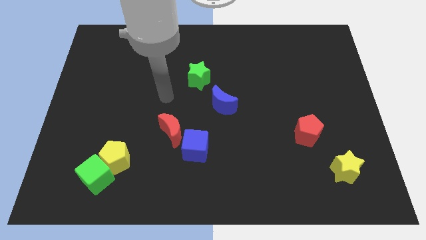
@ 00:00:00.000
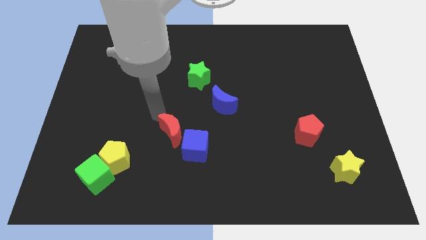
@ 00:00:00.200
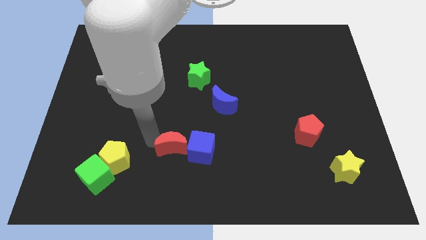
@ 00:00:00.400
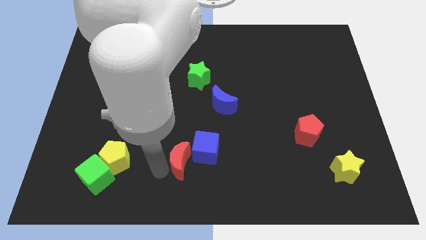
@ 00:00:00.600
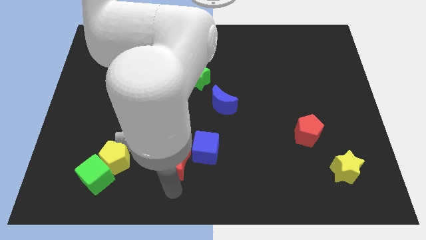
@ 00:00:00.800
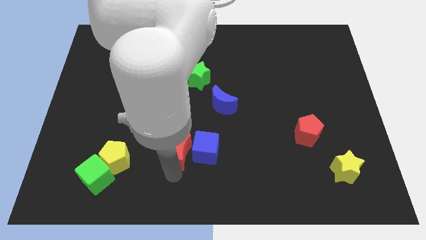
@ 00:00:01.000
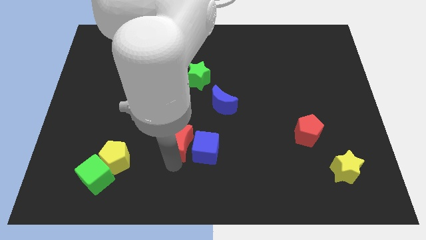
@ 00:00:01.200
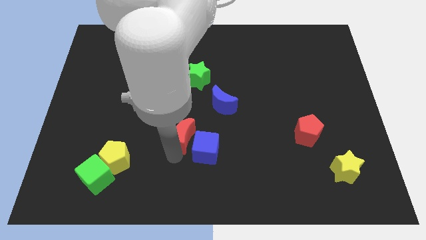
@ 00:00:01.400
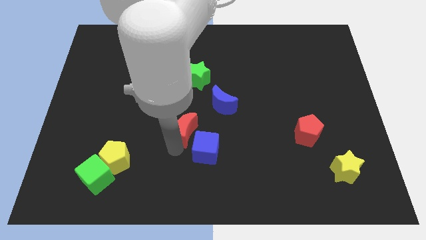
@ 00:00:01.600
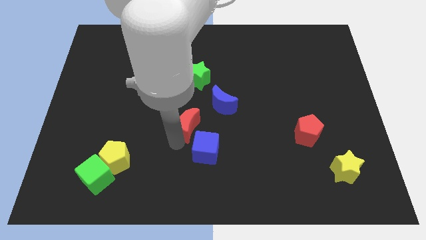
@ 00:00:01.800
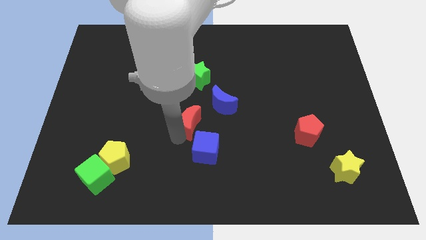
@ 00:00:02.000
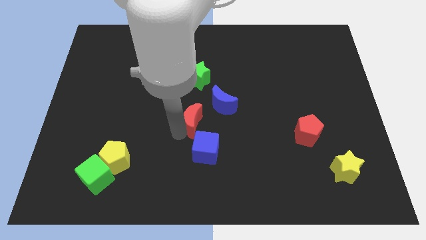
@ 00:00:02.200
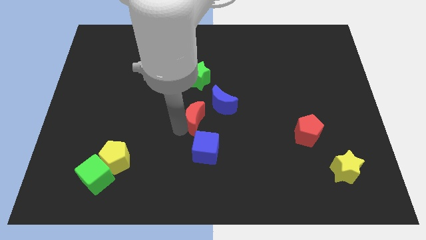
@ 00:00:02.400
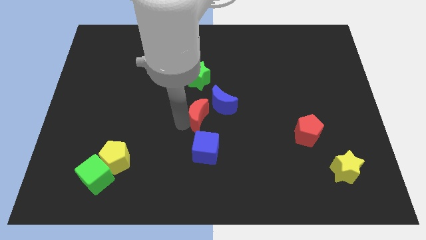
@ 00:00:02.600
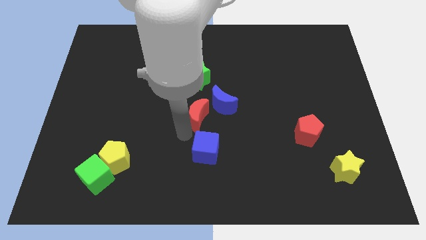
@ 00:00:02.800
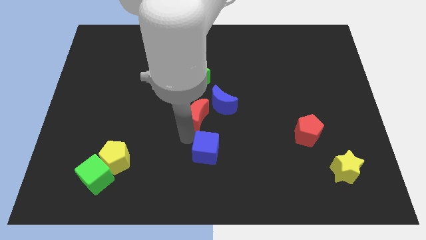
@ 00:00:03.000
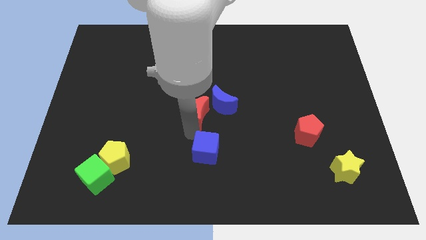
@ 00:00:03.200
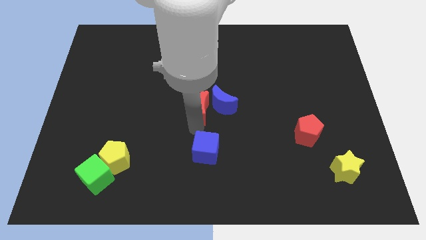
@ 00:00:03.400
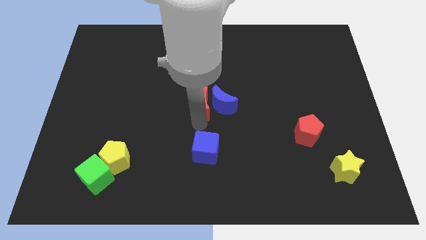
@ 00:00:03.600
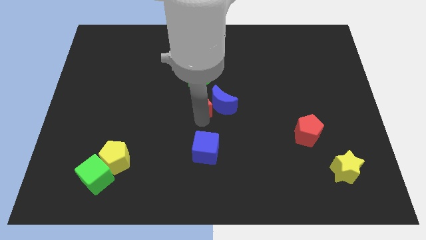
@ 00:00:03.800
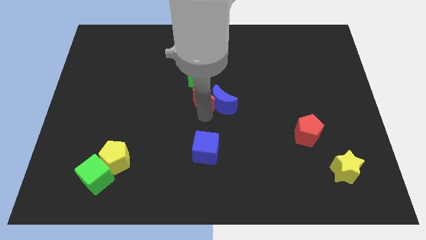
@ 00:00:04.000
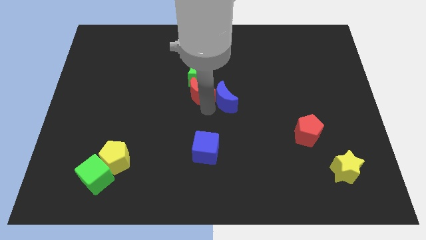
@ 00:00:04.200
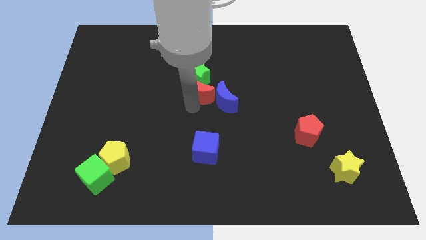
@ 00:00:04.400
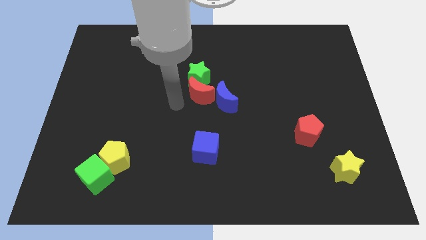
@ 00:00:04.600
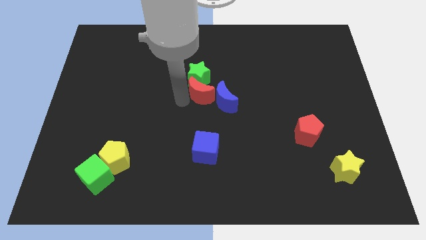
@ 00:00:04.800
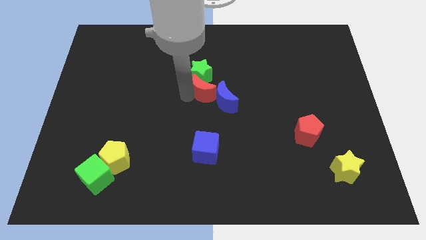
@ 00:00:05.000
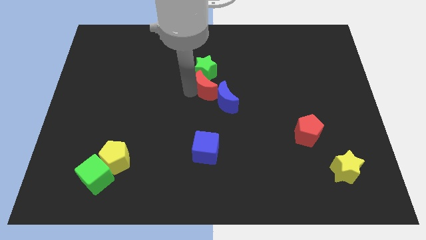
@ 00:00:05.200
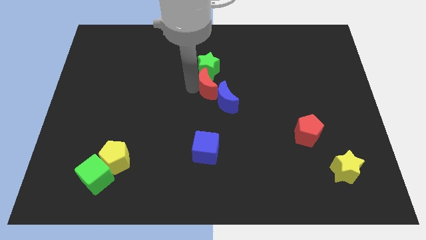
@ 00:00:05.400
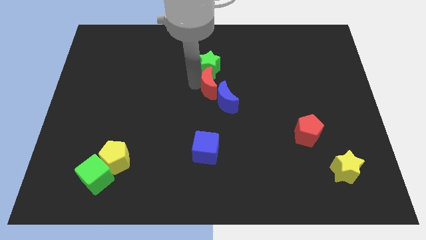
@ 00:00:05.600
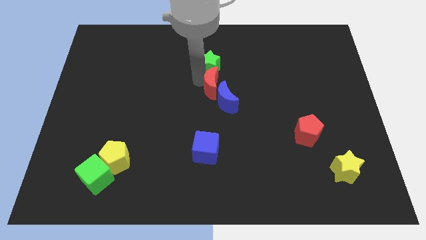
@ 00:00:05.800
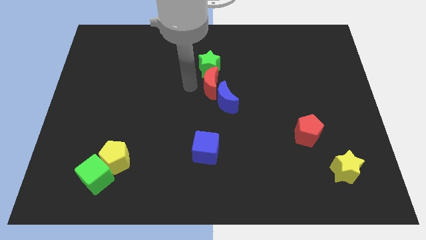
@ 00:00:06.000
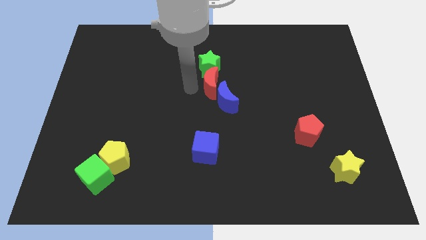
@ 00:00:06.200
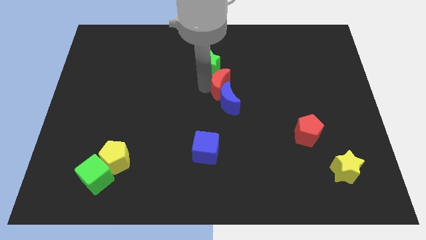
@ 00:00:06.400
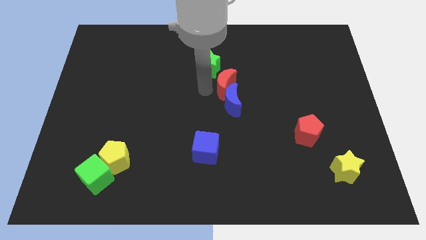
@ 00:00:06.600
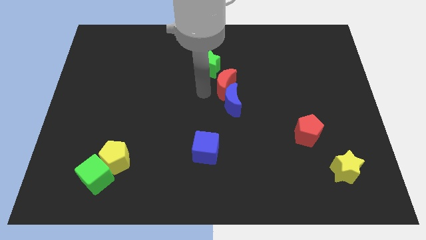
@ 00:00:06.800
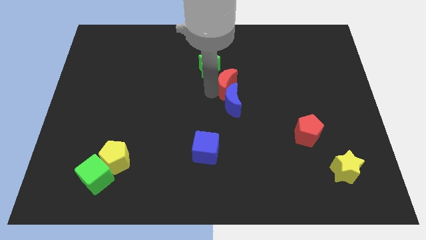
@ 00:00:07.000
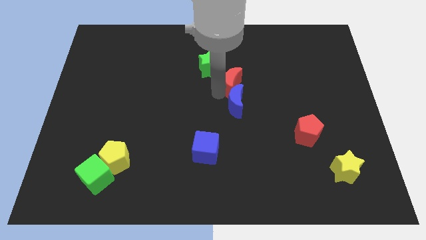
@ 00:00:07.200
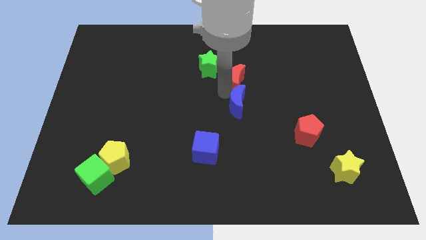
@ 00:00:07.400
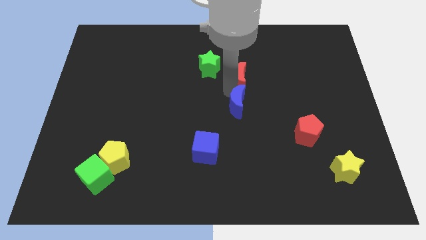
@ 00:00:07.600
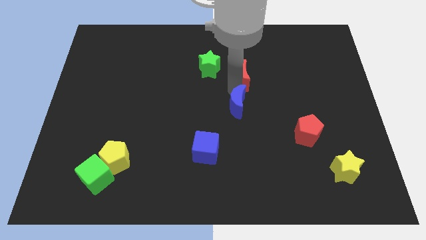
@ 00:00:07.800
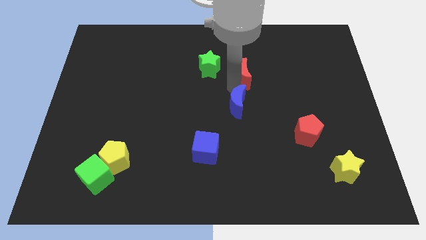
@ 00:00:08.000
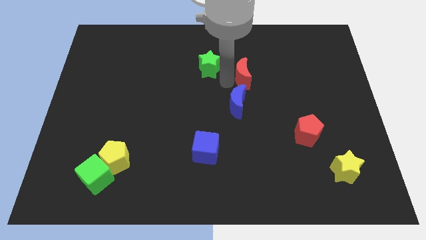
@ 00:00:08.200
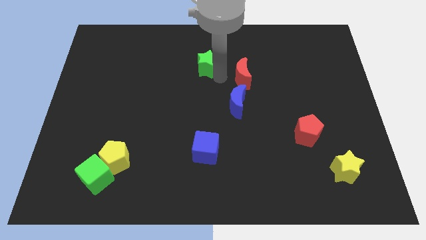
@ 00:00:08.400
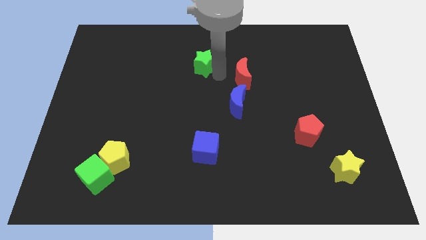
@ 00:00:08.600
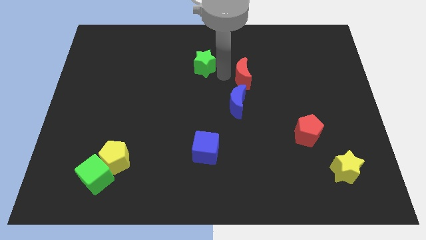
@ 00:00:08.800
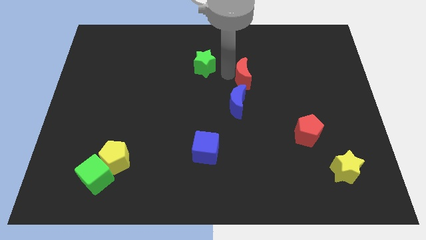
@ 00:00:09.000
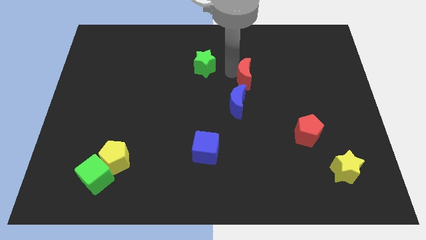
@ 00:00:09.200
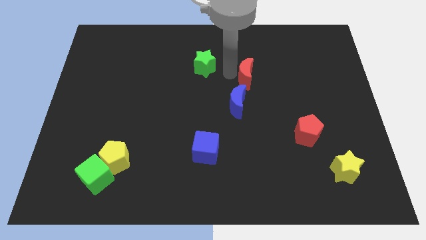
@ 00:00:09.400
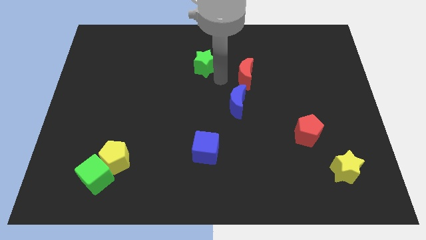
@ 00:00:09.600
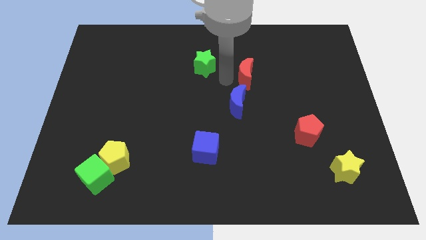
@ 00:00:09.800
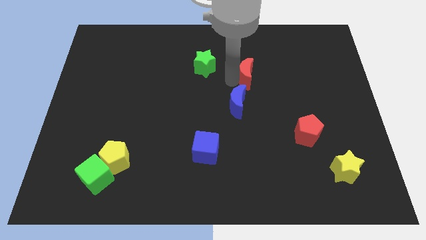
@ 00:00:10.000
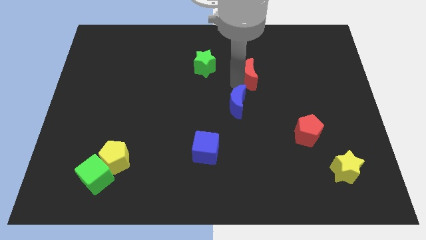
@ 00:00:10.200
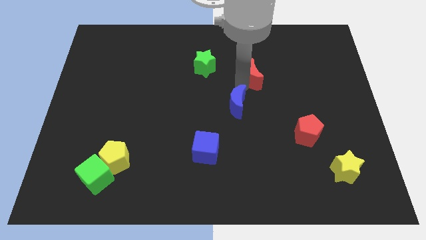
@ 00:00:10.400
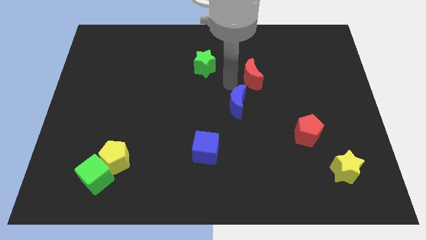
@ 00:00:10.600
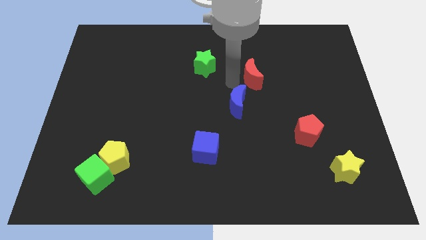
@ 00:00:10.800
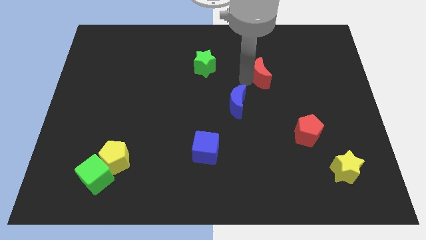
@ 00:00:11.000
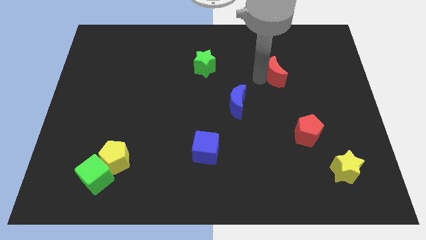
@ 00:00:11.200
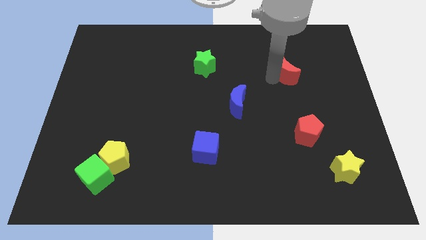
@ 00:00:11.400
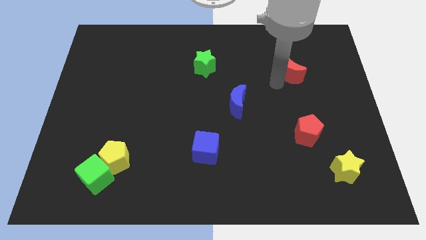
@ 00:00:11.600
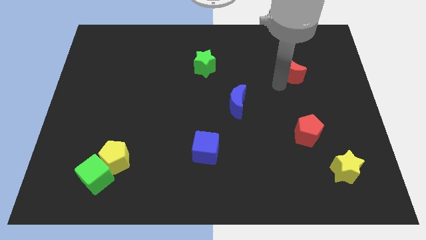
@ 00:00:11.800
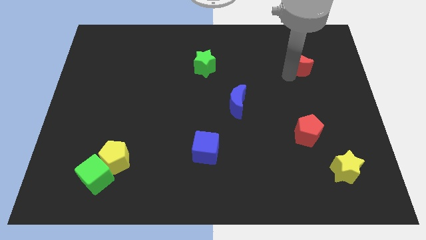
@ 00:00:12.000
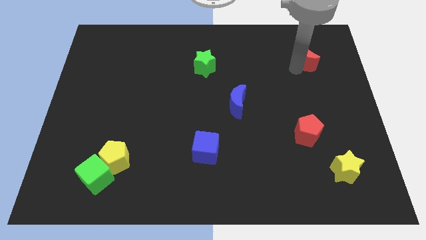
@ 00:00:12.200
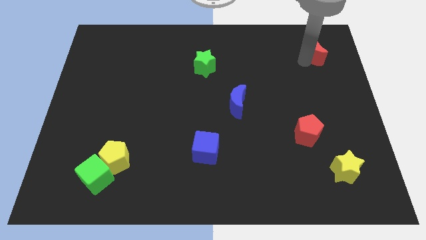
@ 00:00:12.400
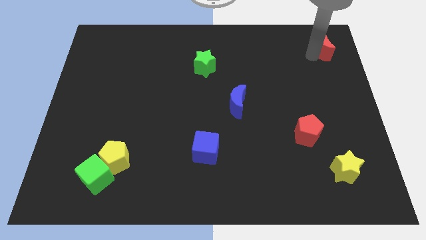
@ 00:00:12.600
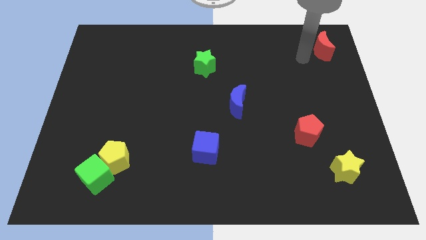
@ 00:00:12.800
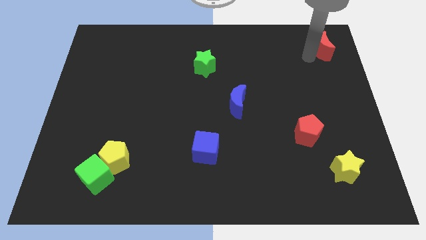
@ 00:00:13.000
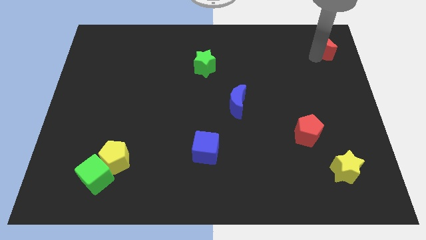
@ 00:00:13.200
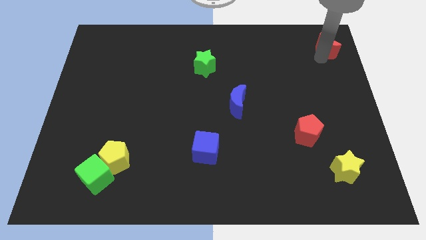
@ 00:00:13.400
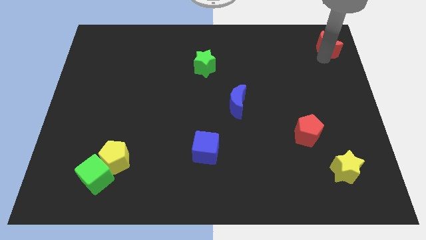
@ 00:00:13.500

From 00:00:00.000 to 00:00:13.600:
put the red moon to the top right corner

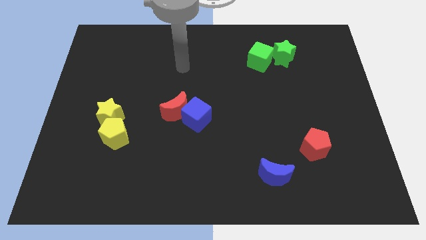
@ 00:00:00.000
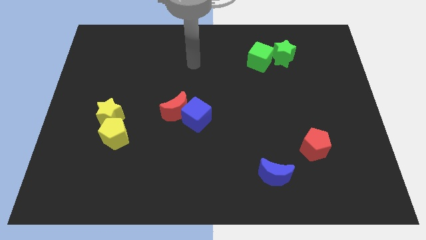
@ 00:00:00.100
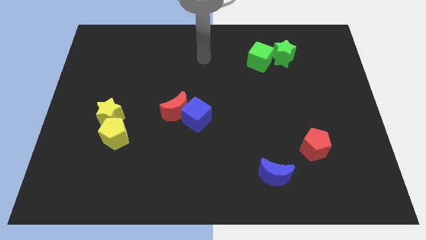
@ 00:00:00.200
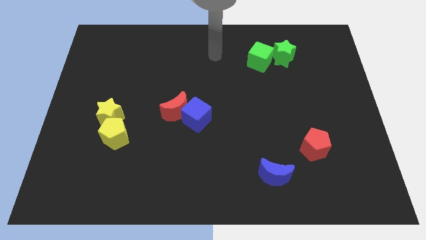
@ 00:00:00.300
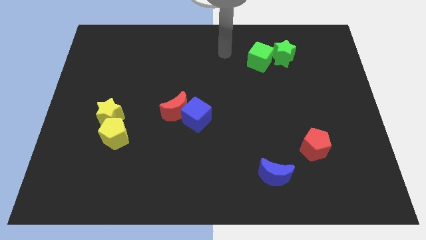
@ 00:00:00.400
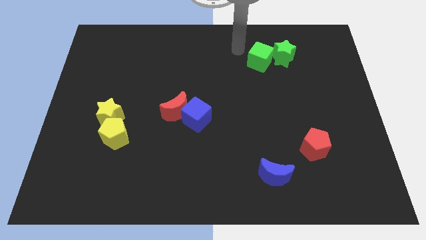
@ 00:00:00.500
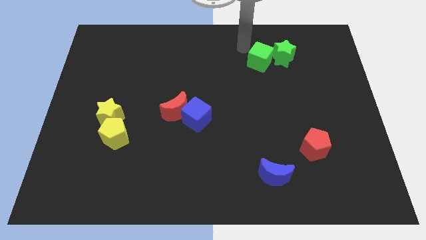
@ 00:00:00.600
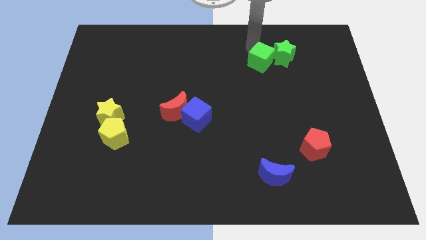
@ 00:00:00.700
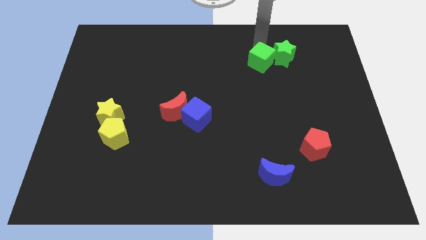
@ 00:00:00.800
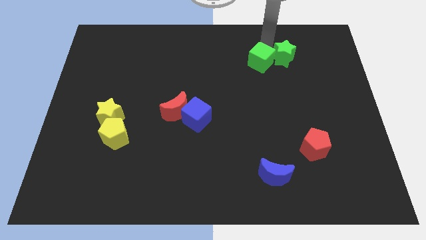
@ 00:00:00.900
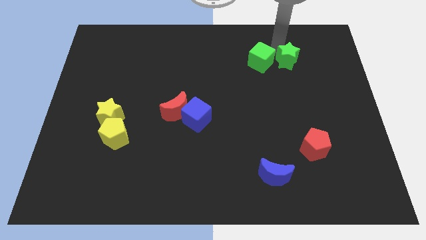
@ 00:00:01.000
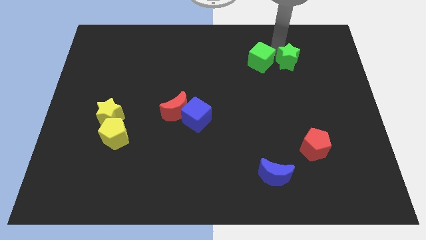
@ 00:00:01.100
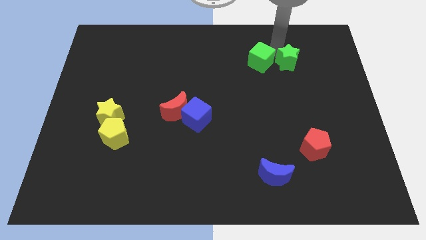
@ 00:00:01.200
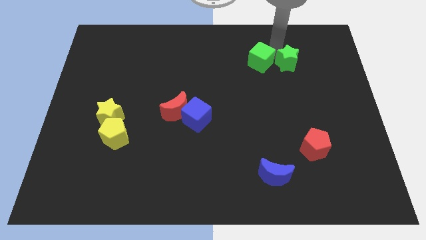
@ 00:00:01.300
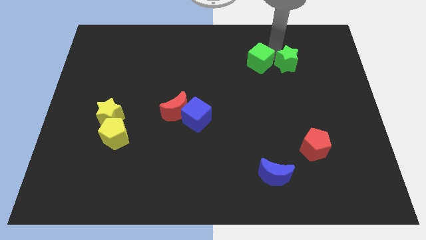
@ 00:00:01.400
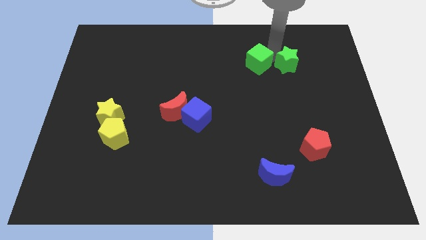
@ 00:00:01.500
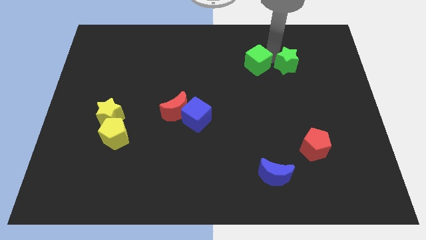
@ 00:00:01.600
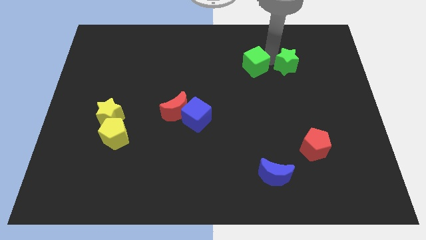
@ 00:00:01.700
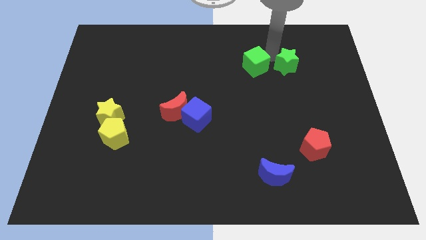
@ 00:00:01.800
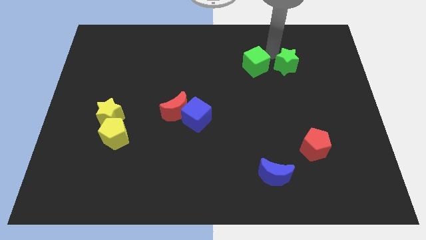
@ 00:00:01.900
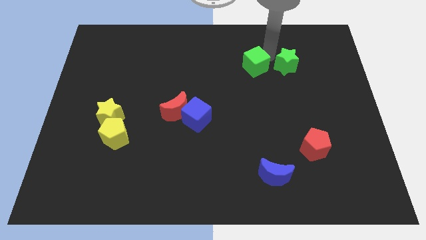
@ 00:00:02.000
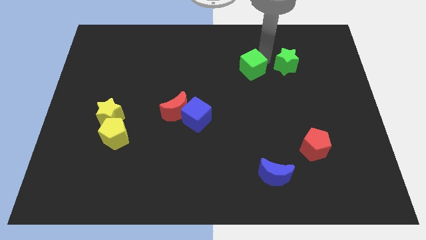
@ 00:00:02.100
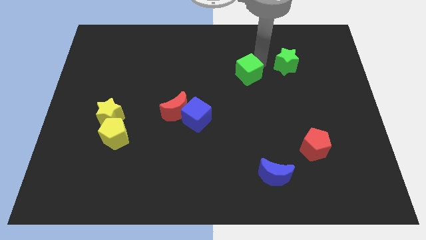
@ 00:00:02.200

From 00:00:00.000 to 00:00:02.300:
push the green cube to the middle
